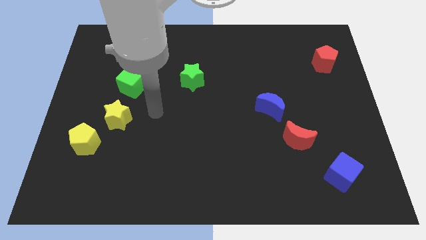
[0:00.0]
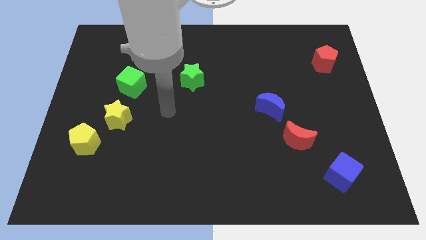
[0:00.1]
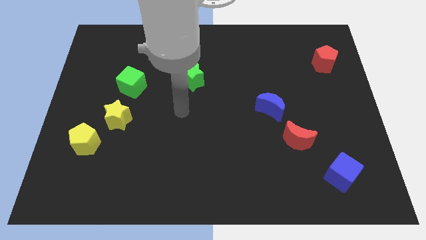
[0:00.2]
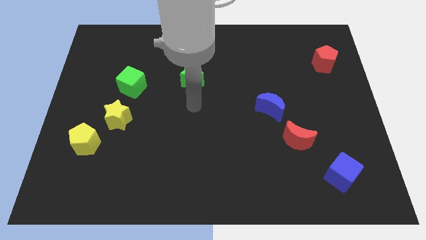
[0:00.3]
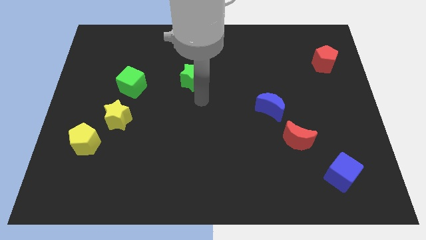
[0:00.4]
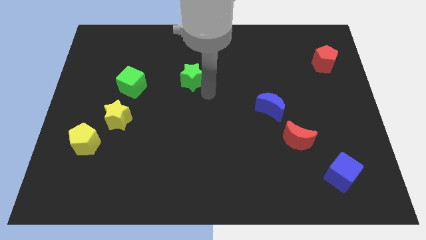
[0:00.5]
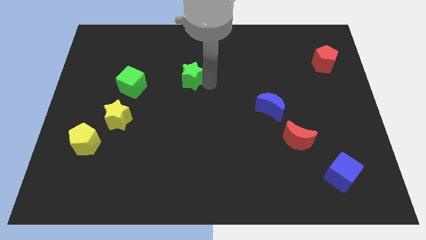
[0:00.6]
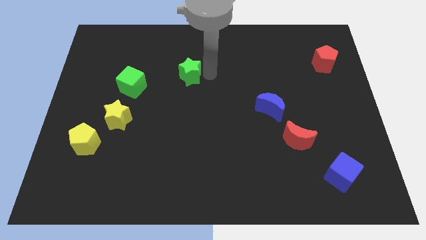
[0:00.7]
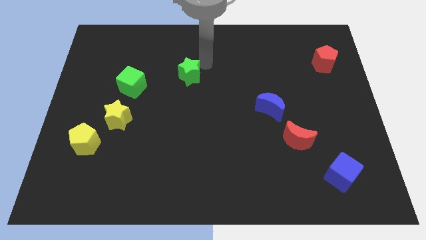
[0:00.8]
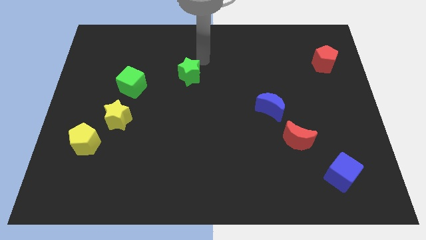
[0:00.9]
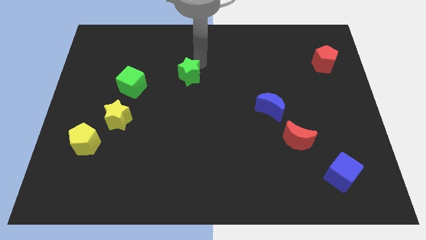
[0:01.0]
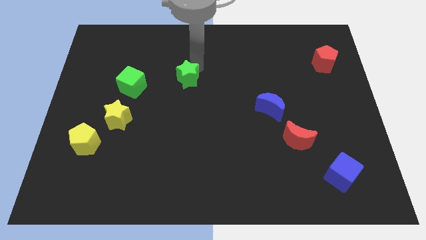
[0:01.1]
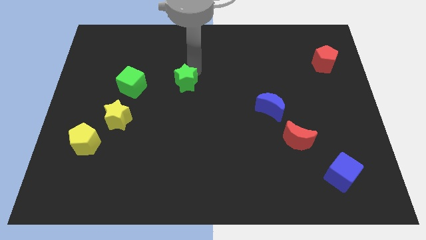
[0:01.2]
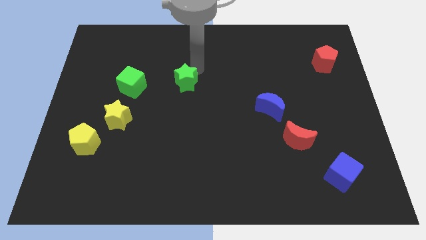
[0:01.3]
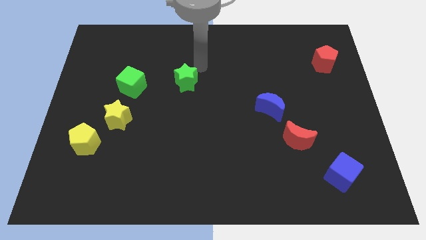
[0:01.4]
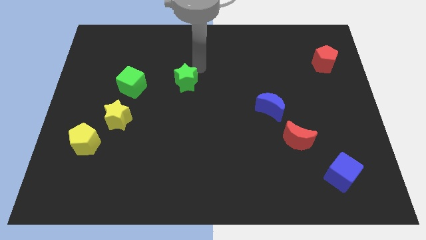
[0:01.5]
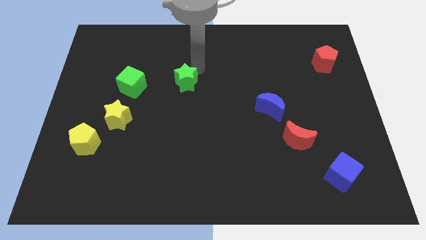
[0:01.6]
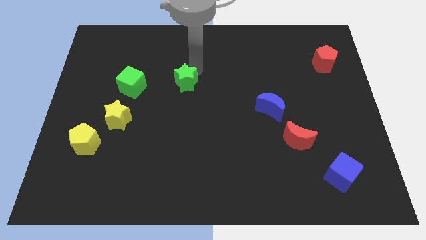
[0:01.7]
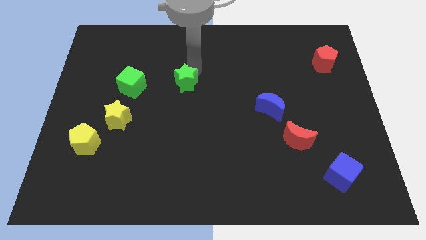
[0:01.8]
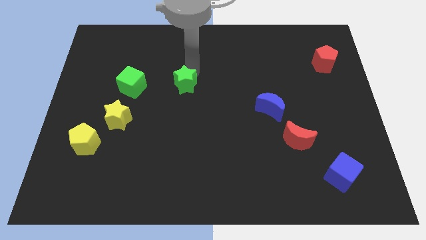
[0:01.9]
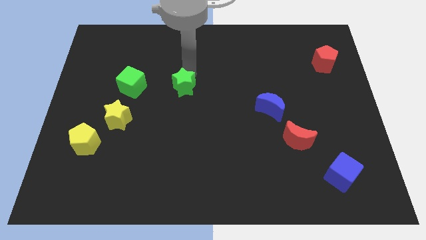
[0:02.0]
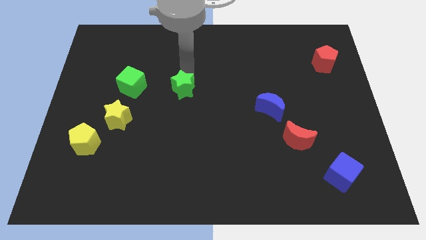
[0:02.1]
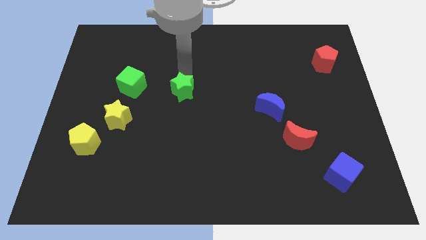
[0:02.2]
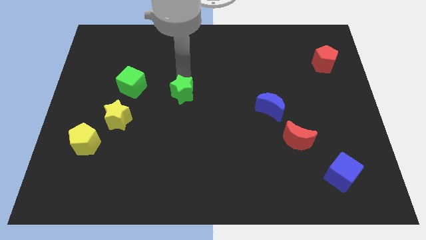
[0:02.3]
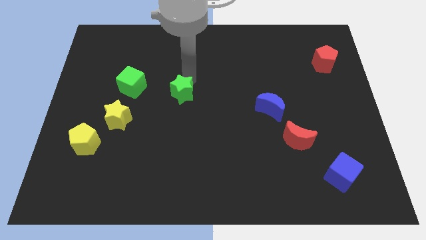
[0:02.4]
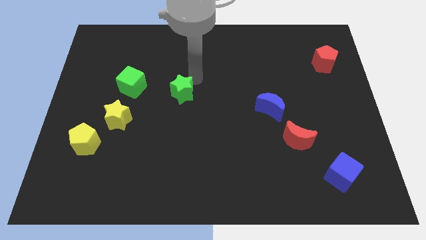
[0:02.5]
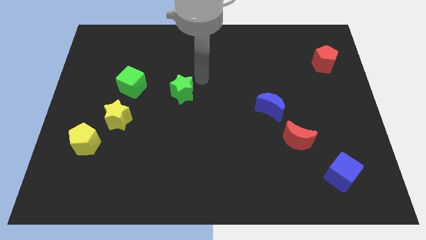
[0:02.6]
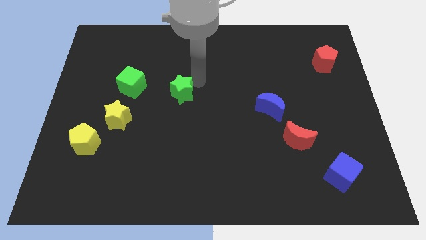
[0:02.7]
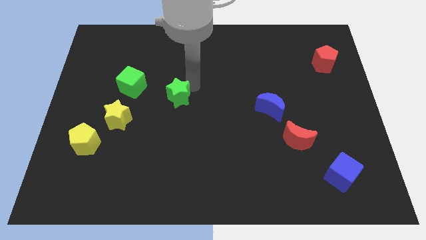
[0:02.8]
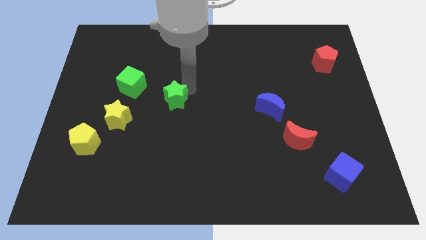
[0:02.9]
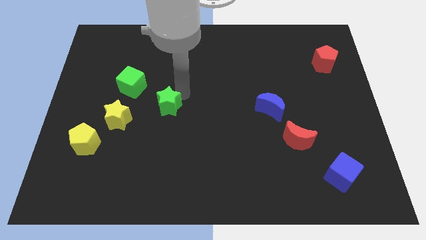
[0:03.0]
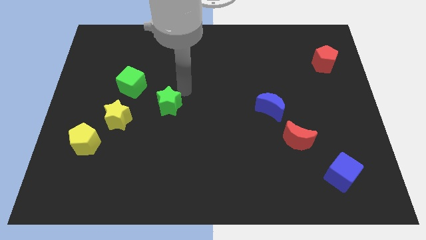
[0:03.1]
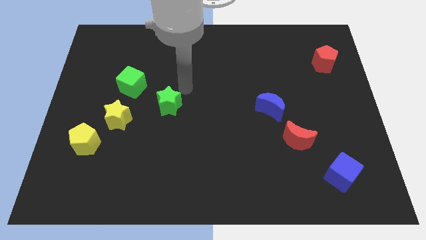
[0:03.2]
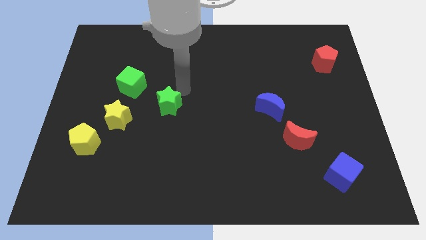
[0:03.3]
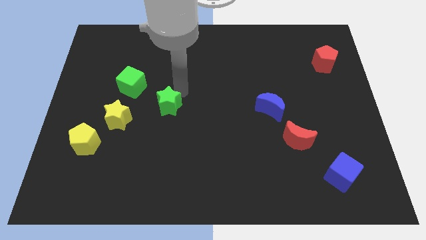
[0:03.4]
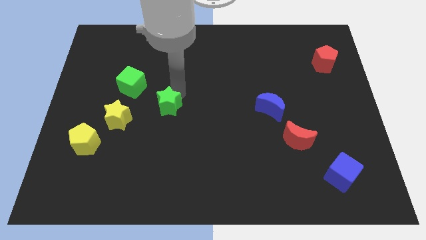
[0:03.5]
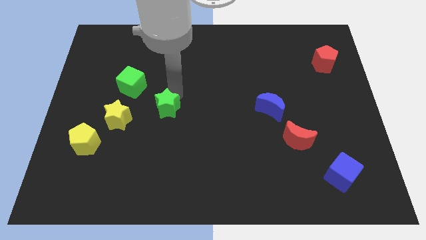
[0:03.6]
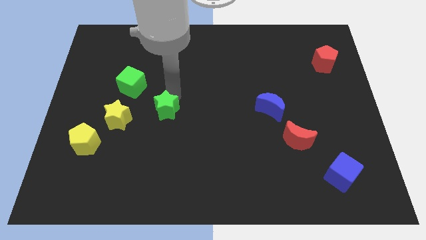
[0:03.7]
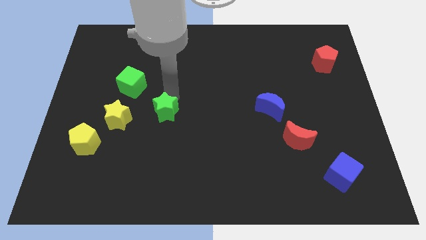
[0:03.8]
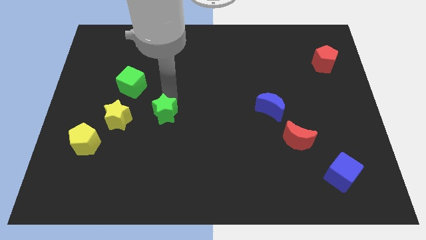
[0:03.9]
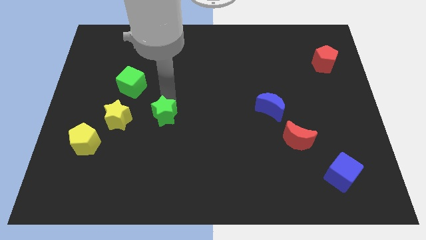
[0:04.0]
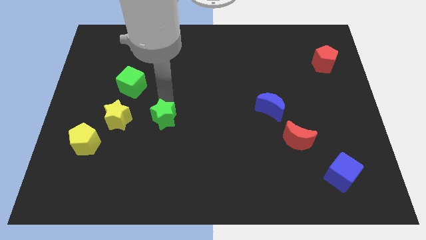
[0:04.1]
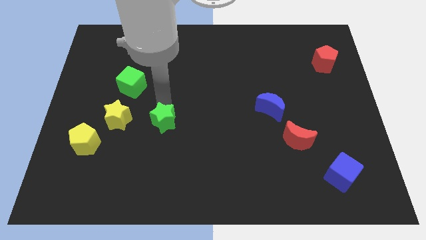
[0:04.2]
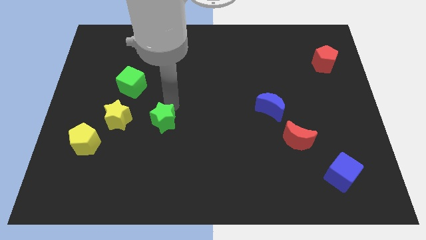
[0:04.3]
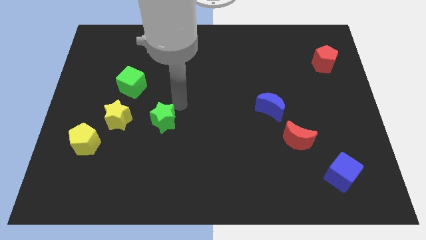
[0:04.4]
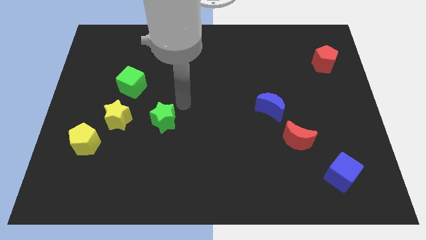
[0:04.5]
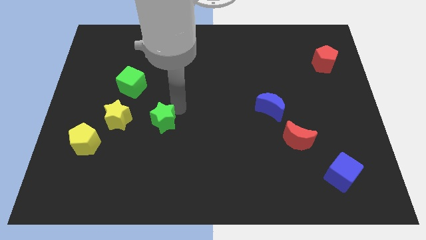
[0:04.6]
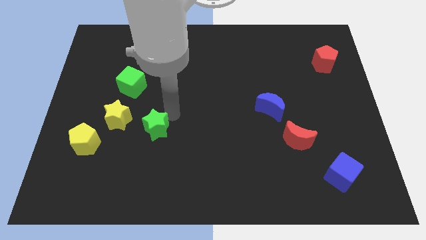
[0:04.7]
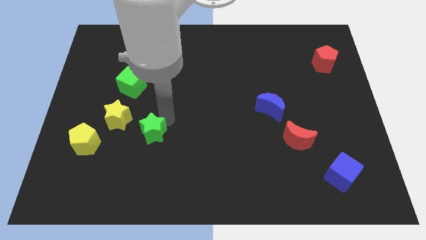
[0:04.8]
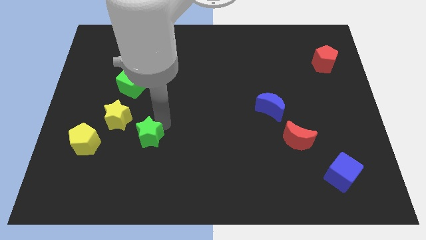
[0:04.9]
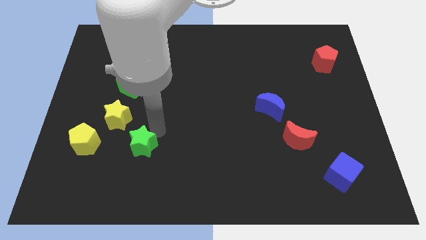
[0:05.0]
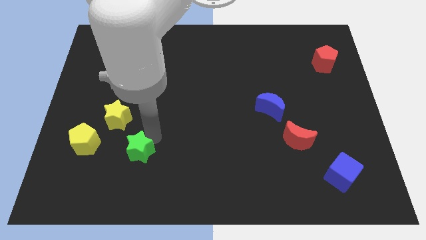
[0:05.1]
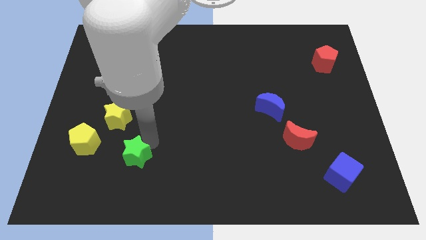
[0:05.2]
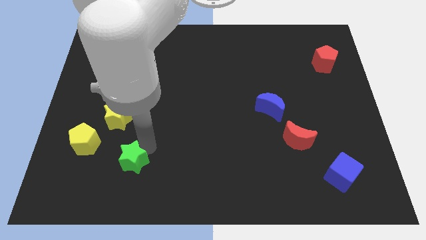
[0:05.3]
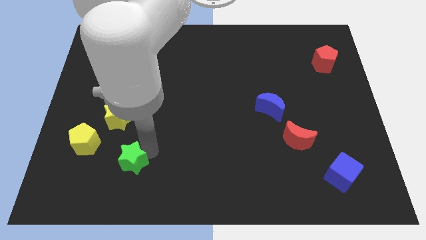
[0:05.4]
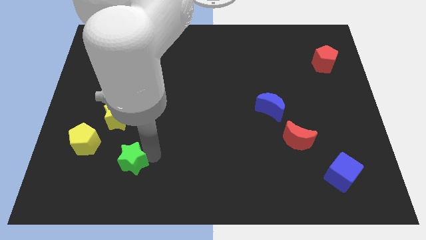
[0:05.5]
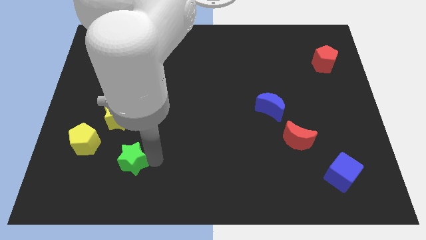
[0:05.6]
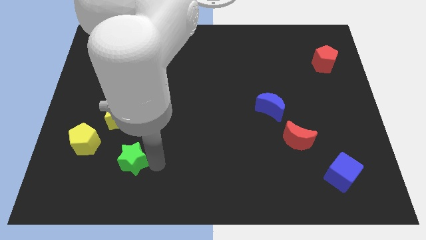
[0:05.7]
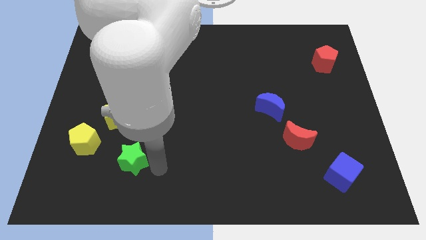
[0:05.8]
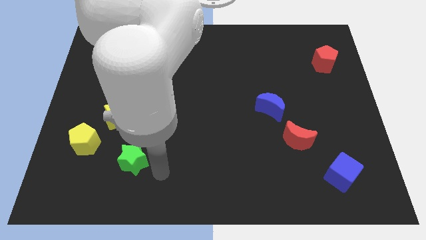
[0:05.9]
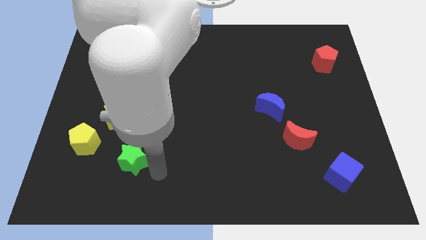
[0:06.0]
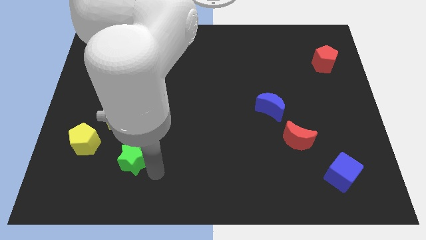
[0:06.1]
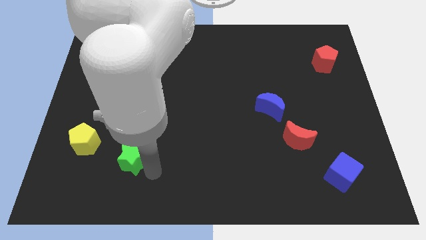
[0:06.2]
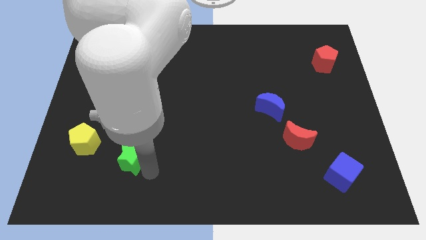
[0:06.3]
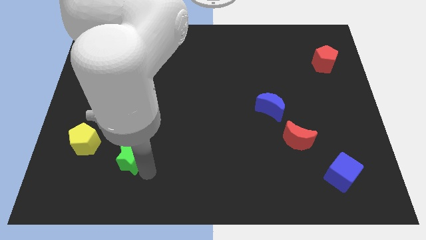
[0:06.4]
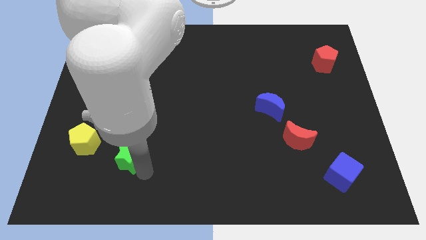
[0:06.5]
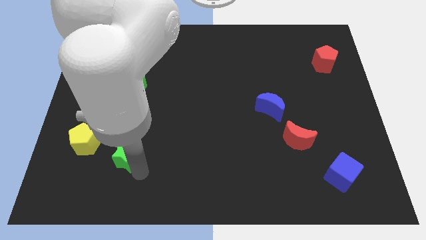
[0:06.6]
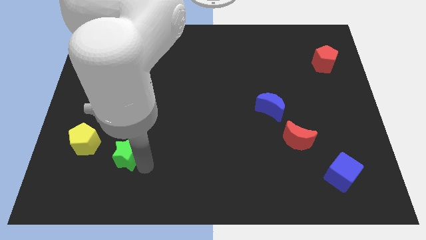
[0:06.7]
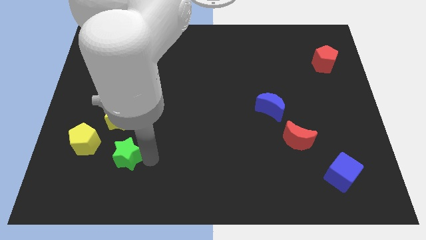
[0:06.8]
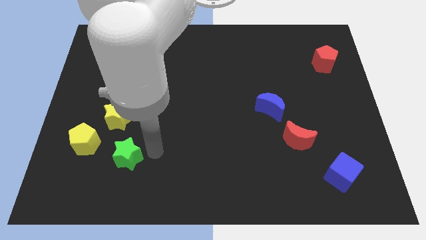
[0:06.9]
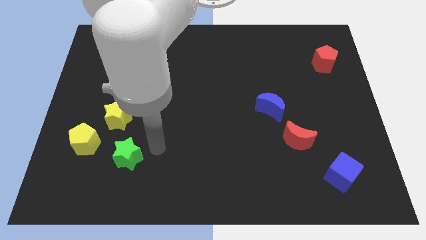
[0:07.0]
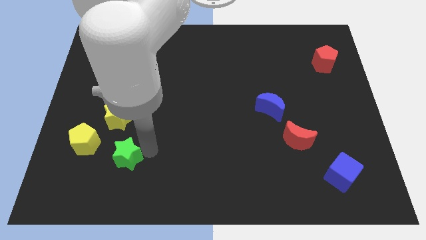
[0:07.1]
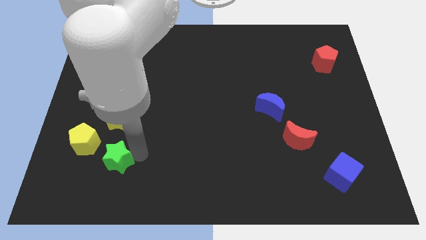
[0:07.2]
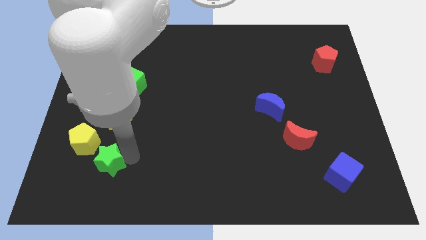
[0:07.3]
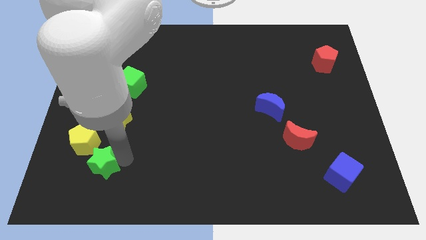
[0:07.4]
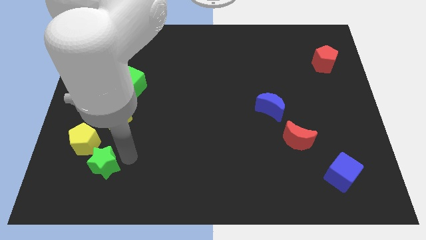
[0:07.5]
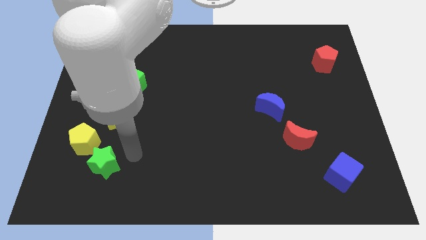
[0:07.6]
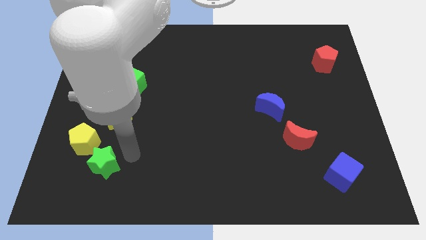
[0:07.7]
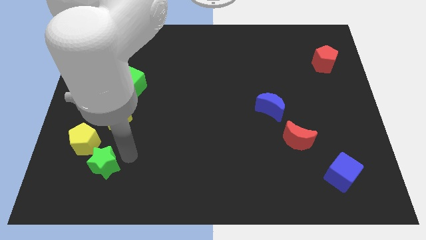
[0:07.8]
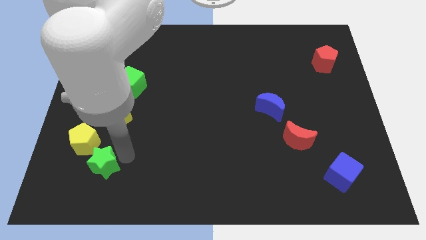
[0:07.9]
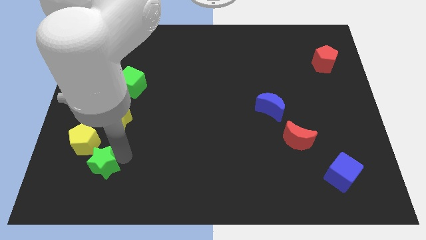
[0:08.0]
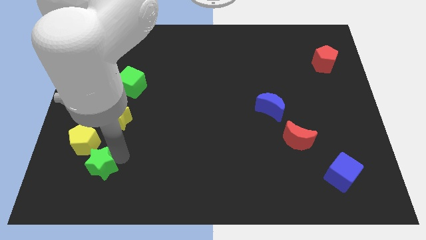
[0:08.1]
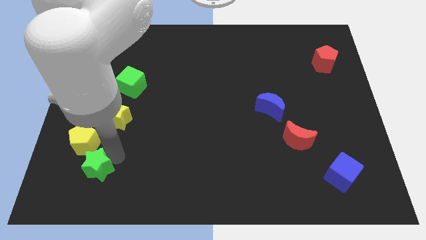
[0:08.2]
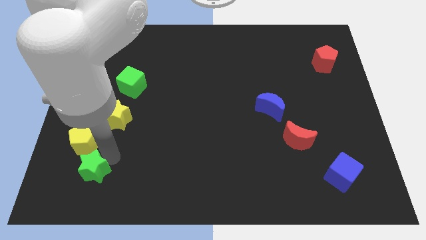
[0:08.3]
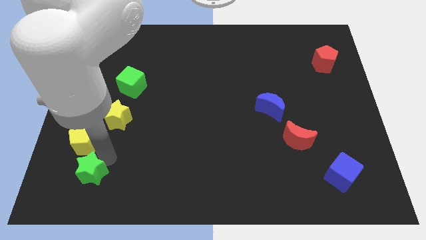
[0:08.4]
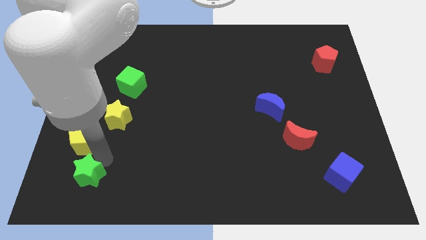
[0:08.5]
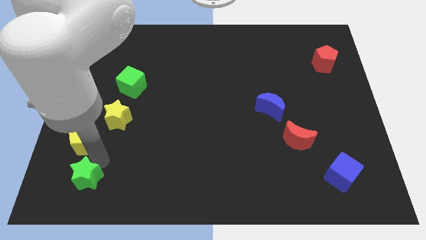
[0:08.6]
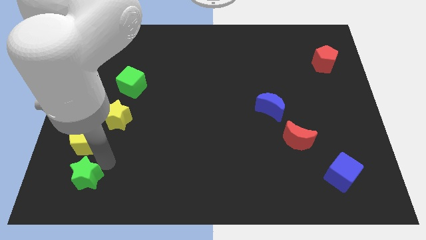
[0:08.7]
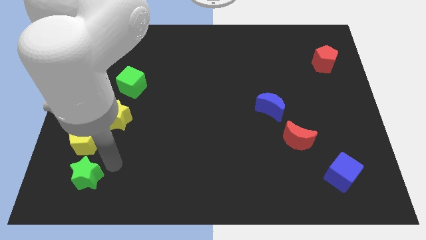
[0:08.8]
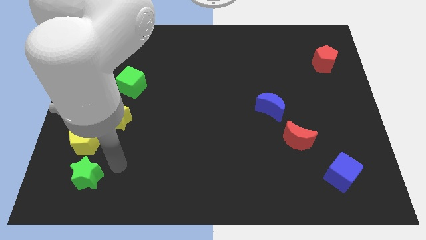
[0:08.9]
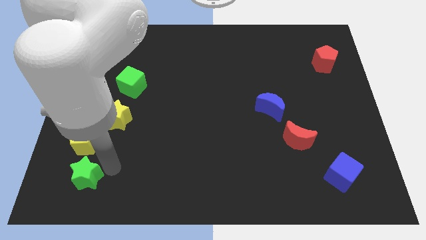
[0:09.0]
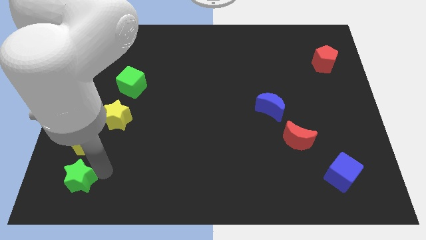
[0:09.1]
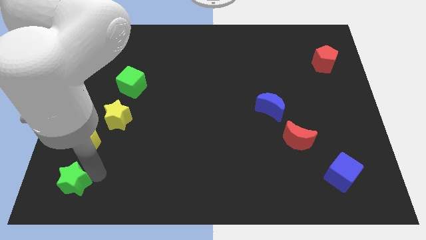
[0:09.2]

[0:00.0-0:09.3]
slide the green star to the lower left corner
